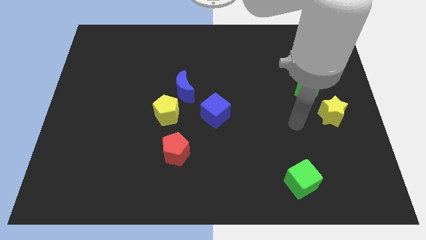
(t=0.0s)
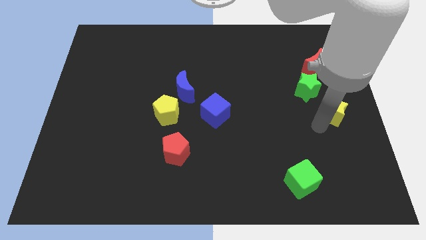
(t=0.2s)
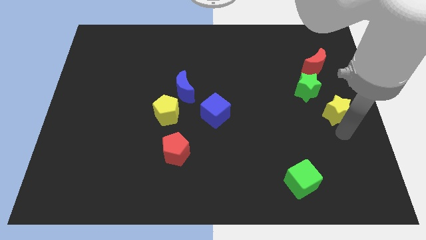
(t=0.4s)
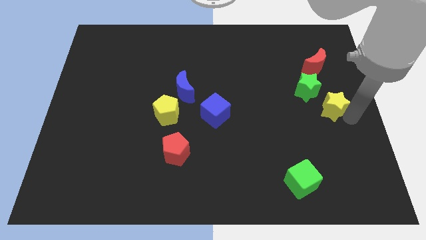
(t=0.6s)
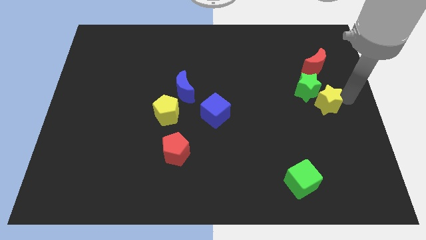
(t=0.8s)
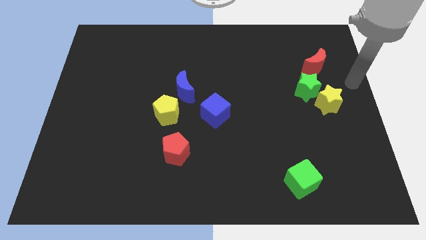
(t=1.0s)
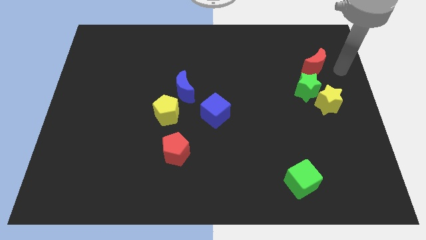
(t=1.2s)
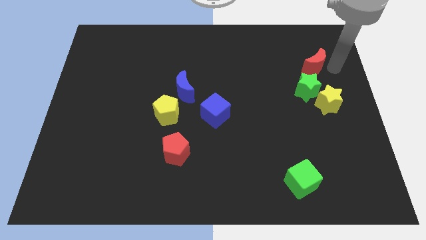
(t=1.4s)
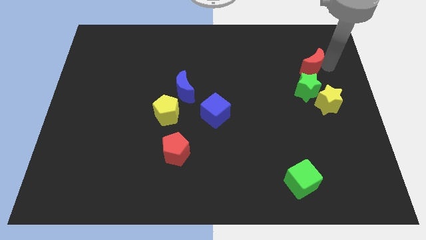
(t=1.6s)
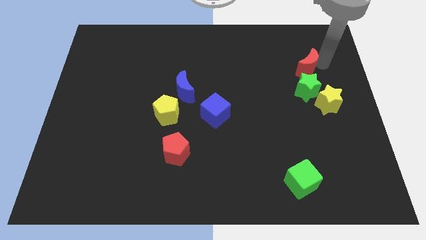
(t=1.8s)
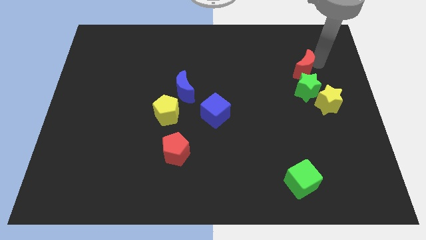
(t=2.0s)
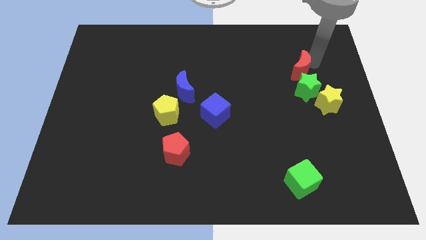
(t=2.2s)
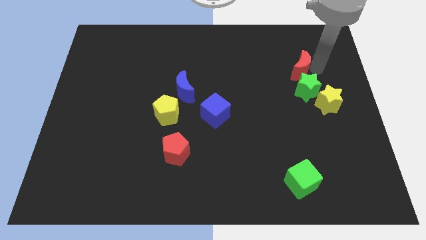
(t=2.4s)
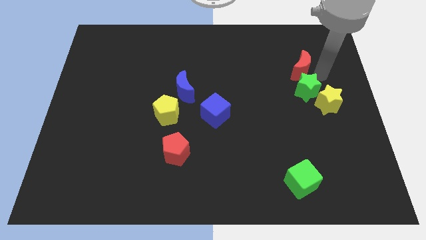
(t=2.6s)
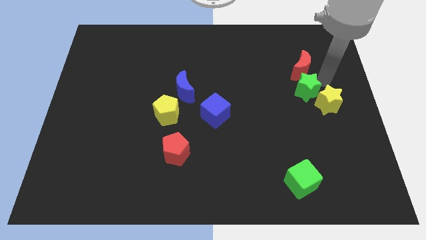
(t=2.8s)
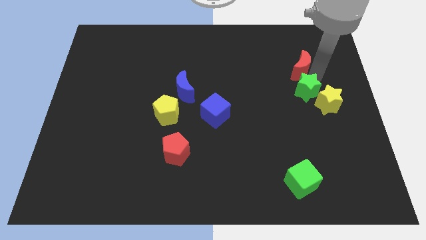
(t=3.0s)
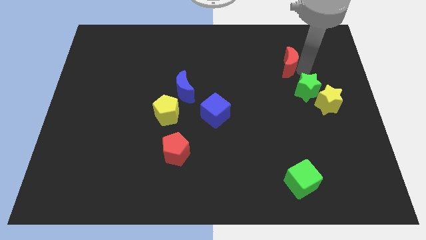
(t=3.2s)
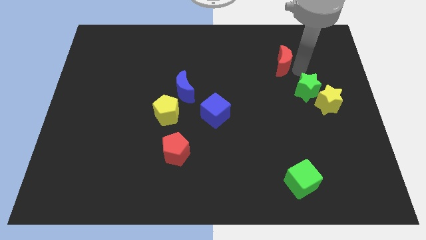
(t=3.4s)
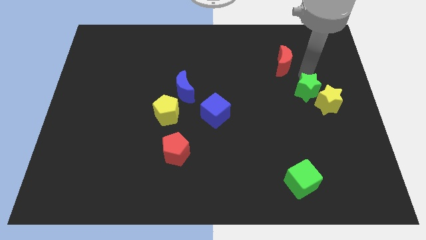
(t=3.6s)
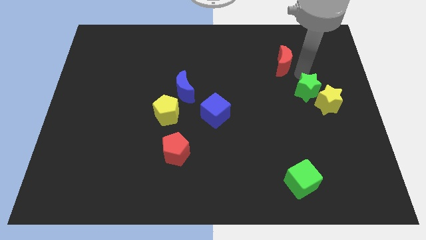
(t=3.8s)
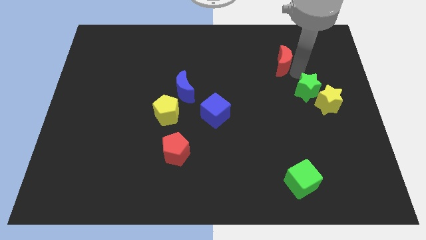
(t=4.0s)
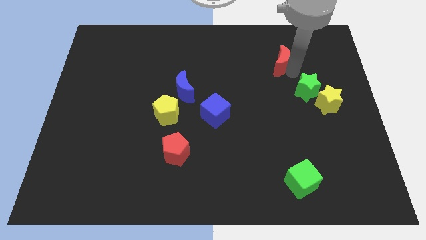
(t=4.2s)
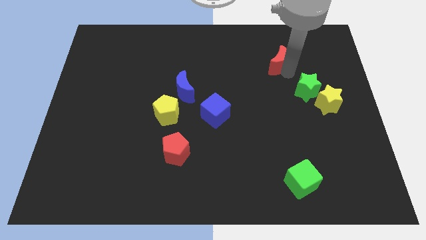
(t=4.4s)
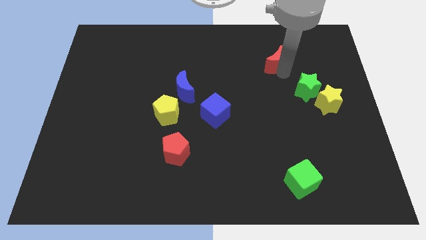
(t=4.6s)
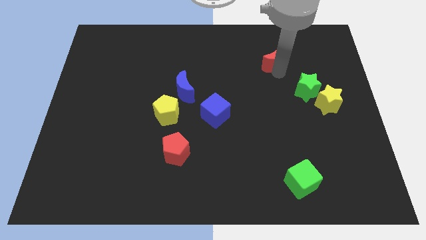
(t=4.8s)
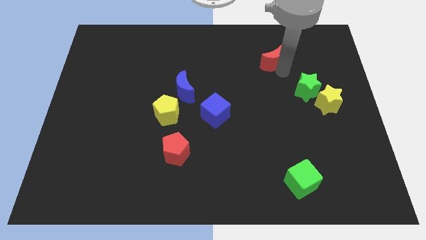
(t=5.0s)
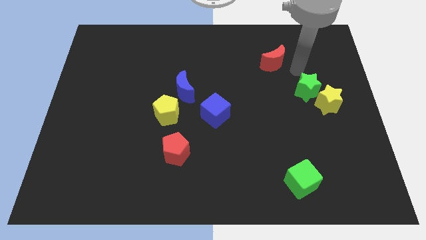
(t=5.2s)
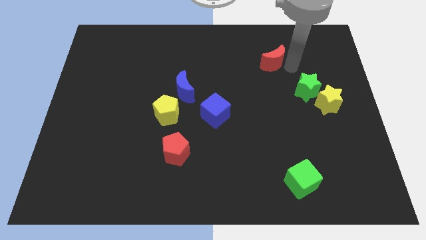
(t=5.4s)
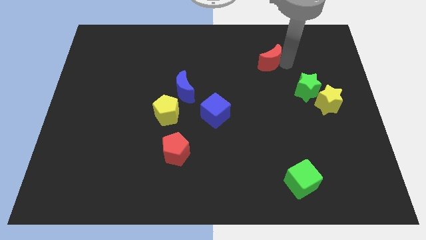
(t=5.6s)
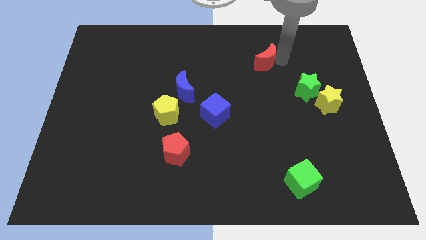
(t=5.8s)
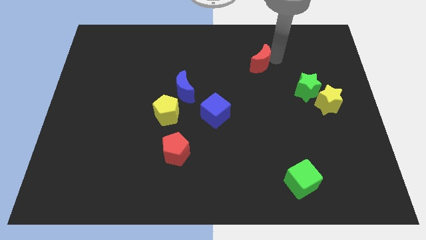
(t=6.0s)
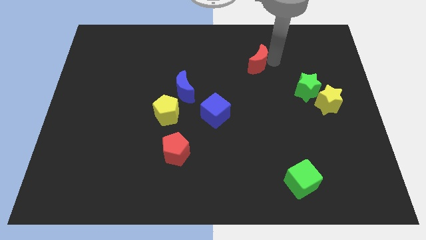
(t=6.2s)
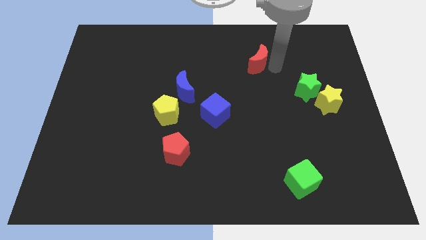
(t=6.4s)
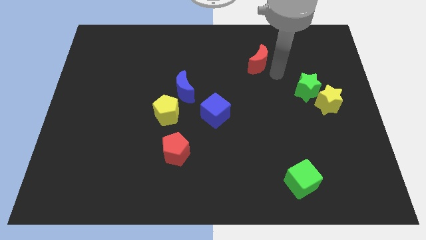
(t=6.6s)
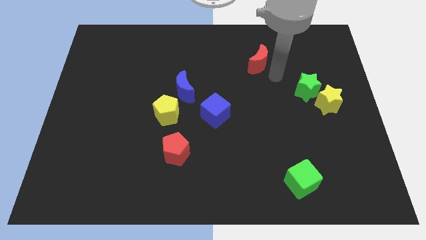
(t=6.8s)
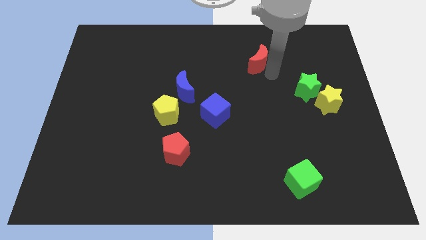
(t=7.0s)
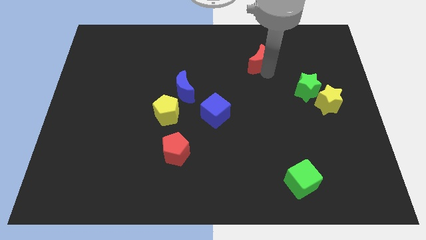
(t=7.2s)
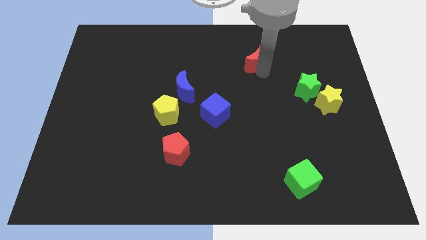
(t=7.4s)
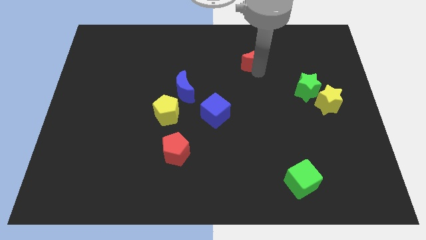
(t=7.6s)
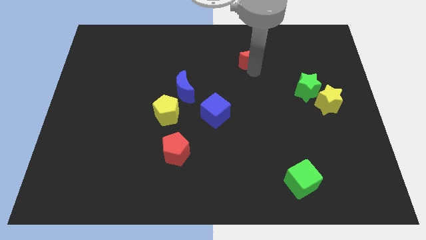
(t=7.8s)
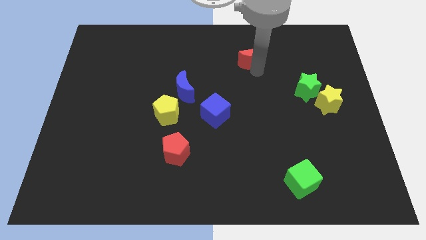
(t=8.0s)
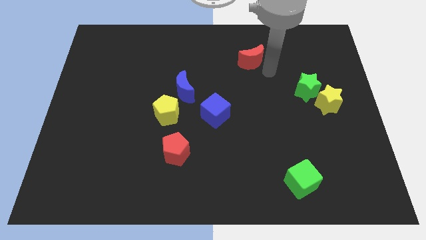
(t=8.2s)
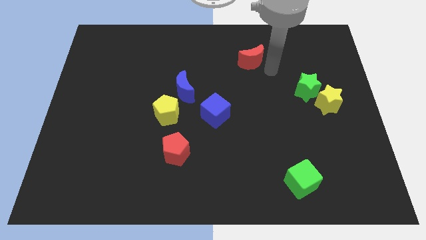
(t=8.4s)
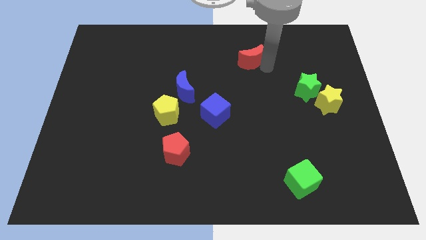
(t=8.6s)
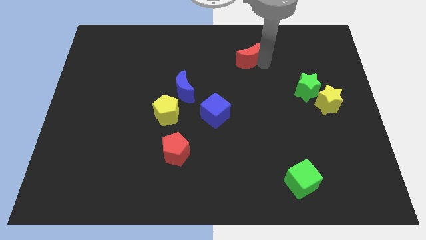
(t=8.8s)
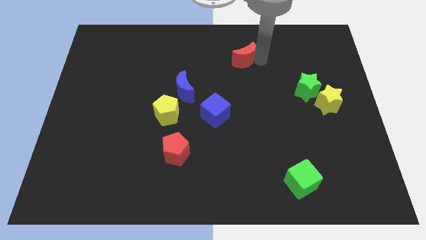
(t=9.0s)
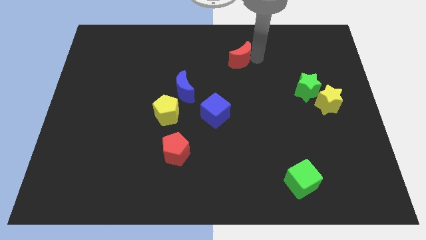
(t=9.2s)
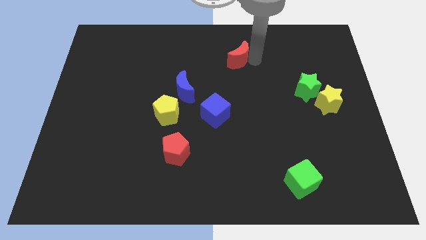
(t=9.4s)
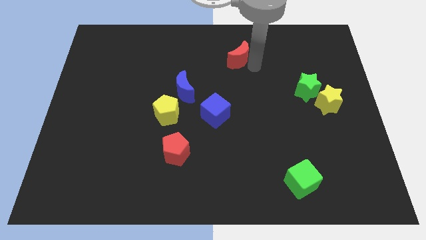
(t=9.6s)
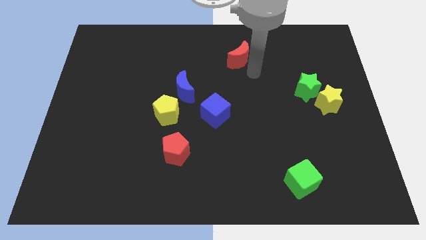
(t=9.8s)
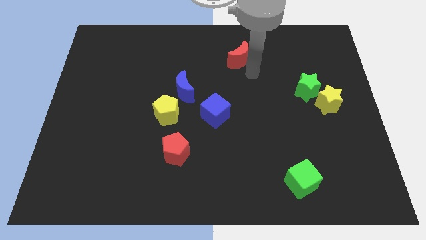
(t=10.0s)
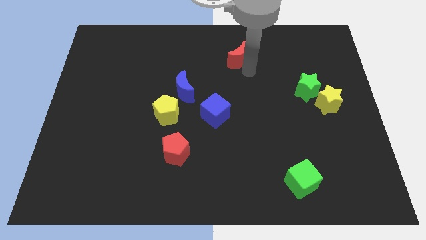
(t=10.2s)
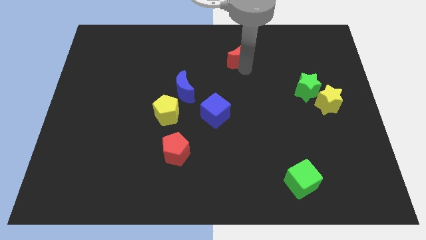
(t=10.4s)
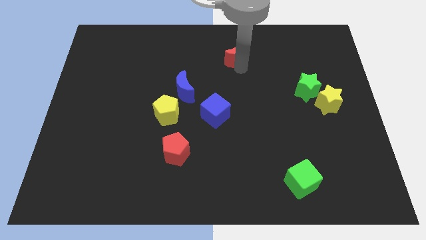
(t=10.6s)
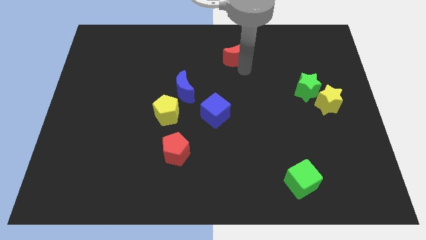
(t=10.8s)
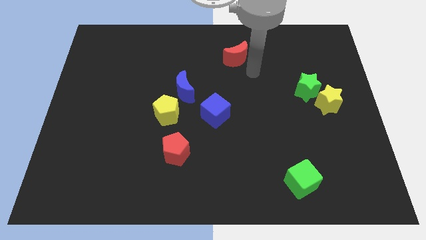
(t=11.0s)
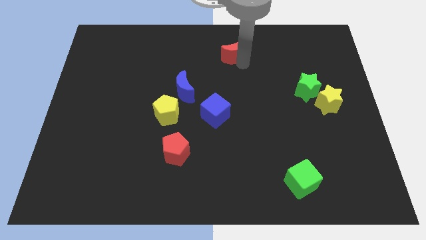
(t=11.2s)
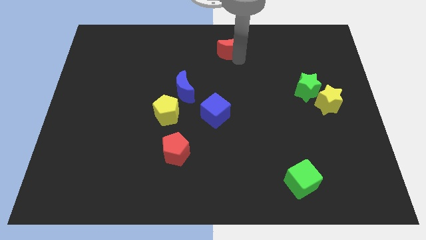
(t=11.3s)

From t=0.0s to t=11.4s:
push the red moon to the top

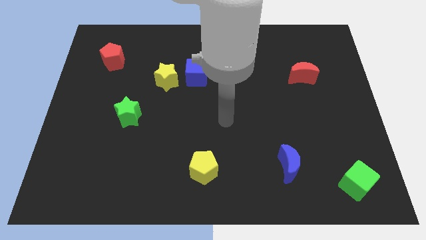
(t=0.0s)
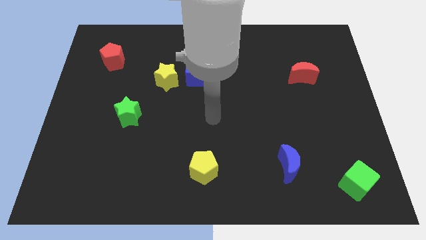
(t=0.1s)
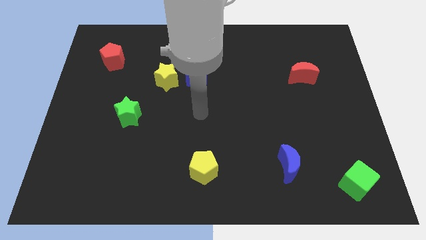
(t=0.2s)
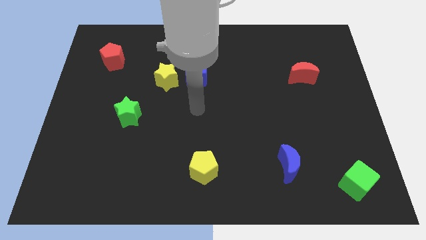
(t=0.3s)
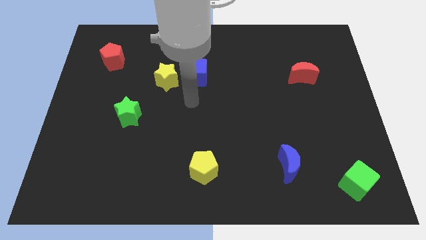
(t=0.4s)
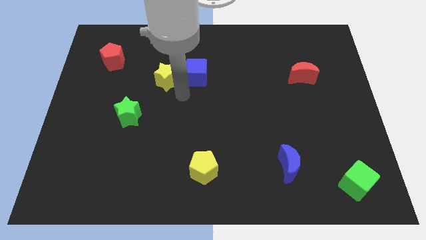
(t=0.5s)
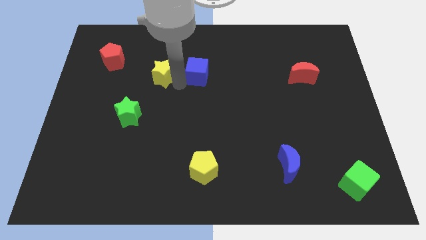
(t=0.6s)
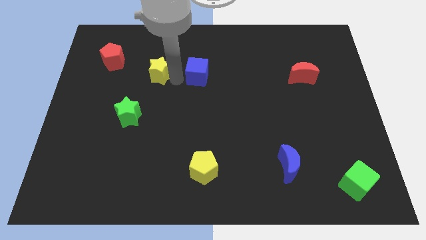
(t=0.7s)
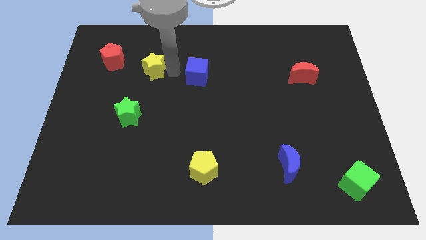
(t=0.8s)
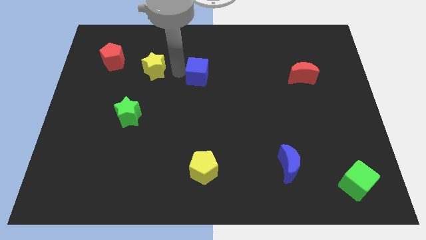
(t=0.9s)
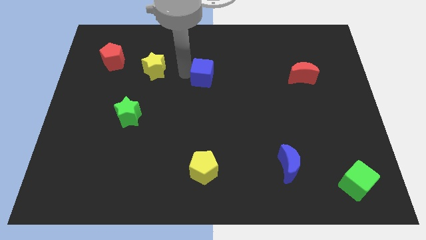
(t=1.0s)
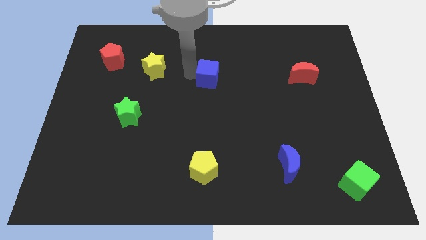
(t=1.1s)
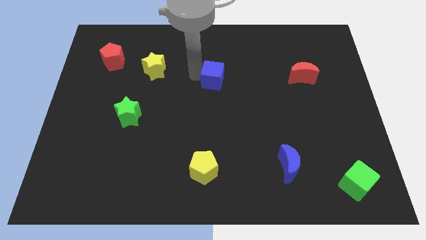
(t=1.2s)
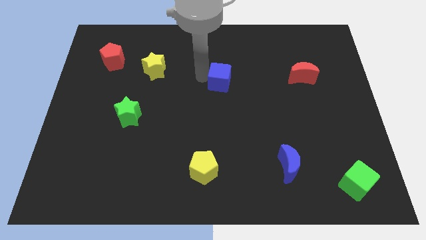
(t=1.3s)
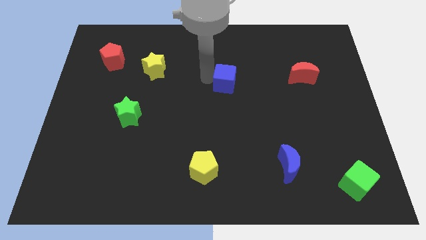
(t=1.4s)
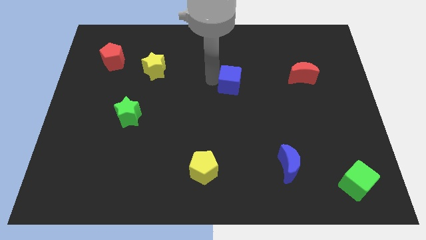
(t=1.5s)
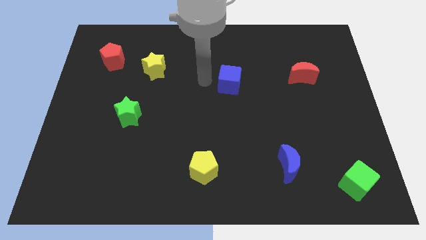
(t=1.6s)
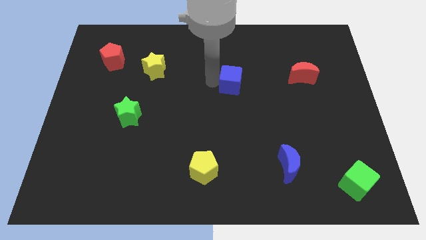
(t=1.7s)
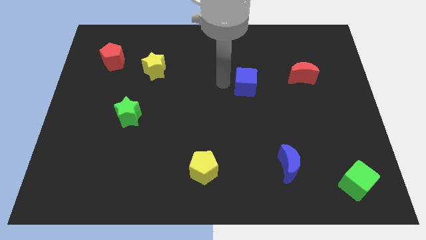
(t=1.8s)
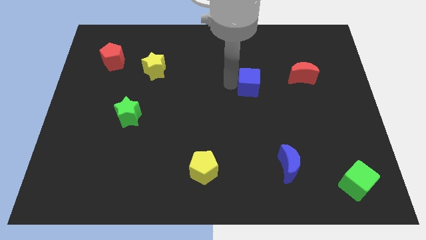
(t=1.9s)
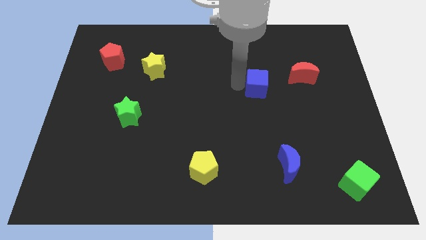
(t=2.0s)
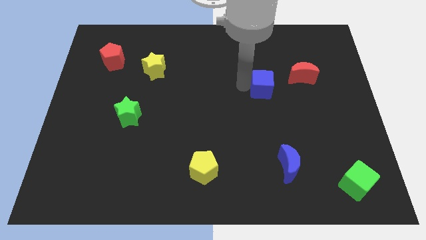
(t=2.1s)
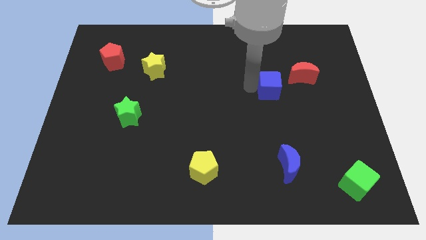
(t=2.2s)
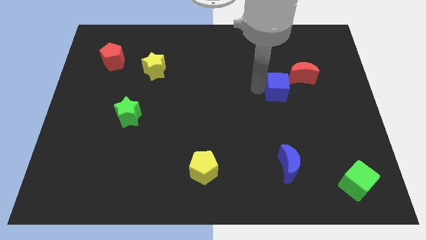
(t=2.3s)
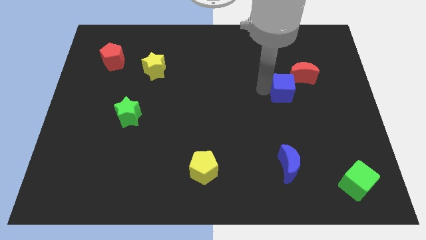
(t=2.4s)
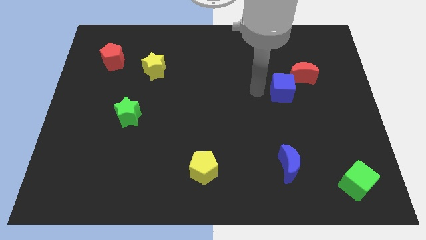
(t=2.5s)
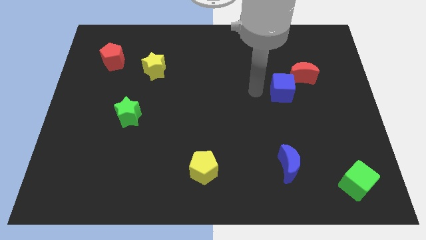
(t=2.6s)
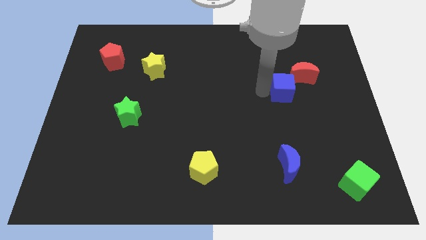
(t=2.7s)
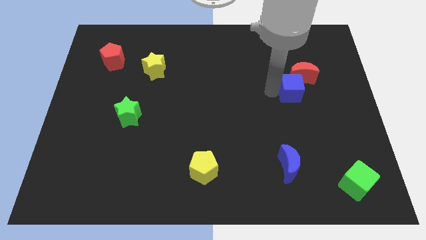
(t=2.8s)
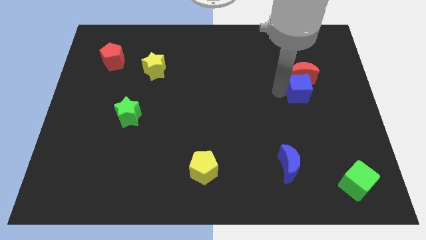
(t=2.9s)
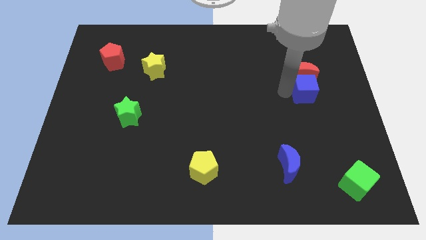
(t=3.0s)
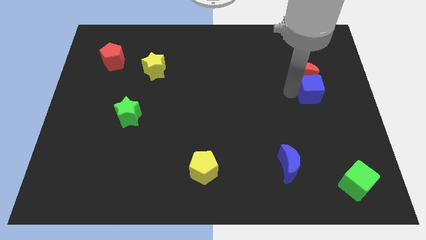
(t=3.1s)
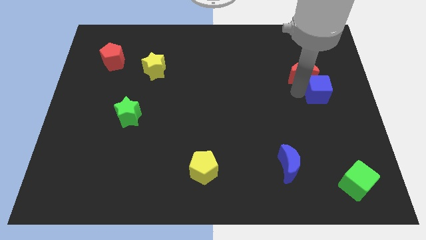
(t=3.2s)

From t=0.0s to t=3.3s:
slide the blue cube to the center right
